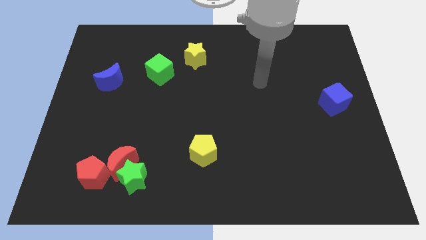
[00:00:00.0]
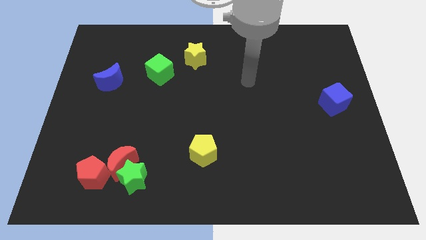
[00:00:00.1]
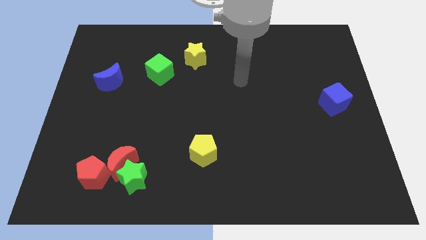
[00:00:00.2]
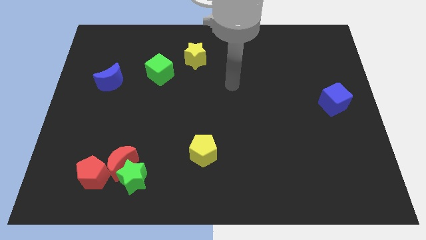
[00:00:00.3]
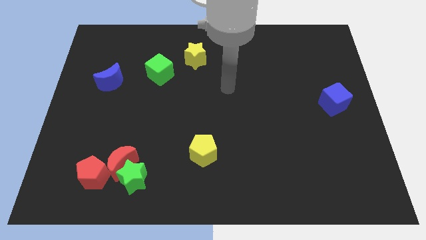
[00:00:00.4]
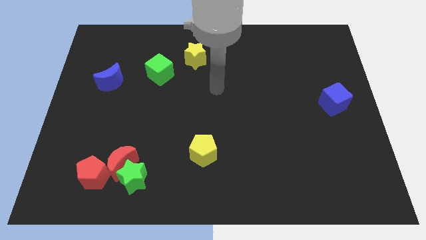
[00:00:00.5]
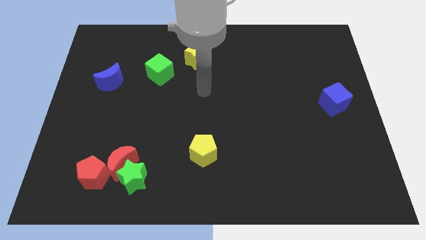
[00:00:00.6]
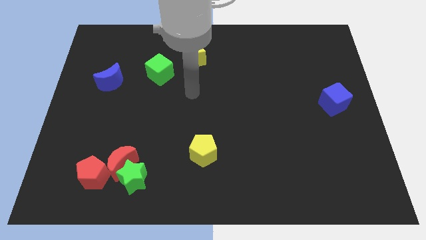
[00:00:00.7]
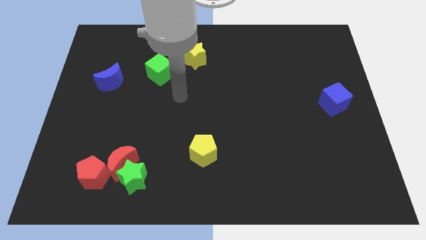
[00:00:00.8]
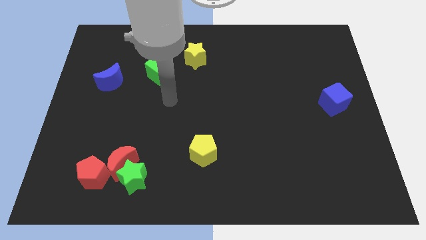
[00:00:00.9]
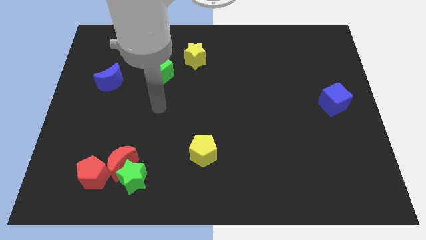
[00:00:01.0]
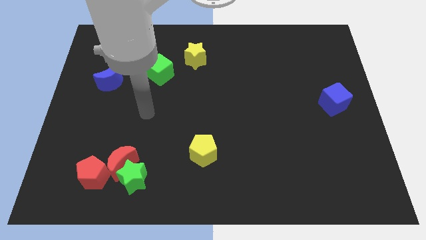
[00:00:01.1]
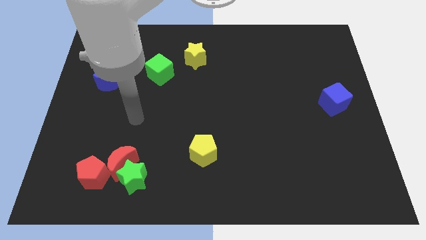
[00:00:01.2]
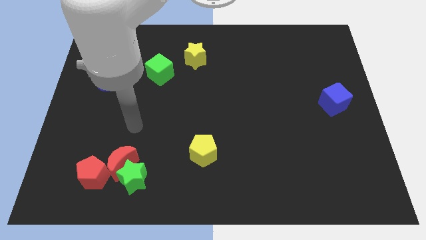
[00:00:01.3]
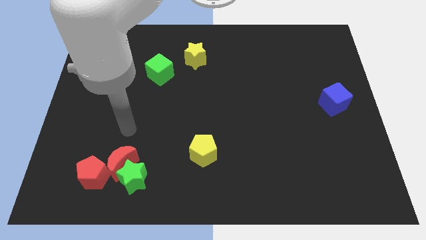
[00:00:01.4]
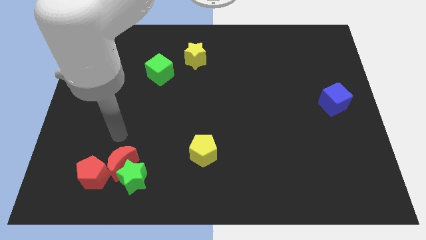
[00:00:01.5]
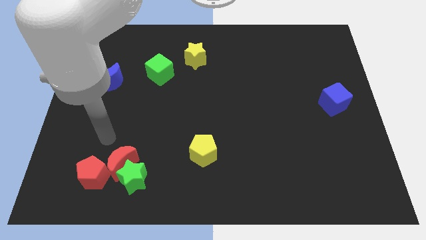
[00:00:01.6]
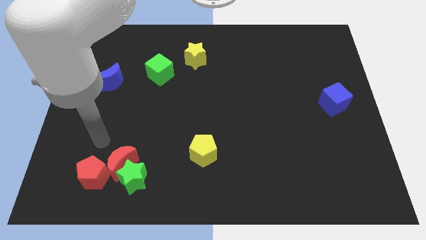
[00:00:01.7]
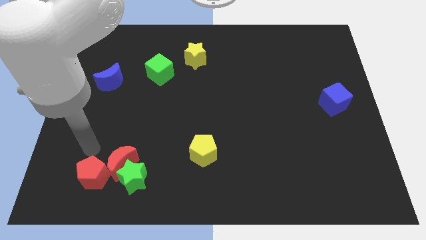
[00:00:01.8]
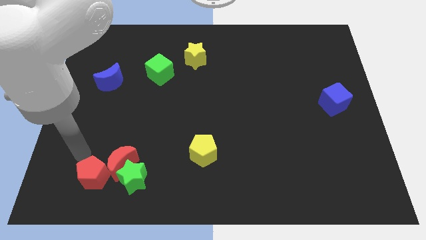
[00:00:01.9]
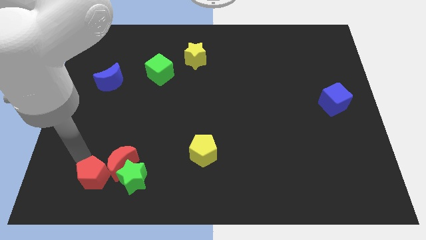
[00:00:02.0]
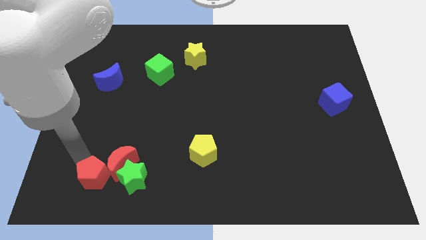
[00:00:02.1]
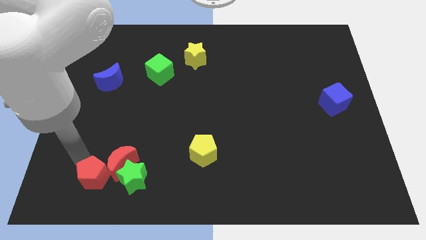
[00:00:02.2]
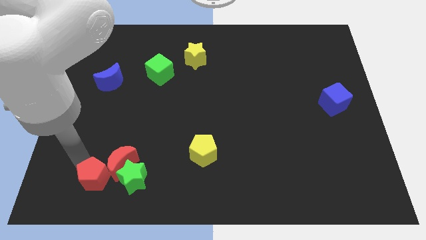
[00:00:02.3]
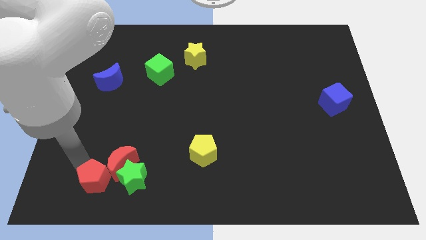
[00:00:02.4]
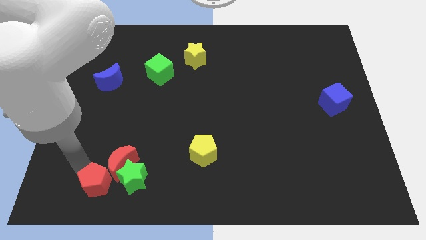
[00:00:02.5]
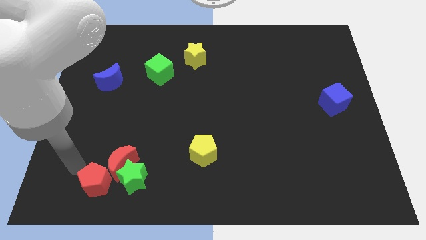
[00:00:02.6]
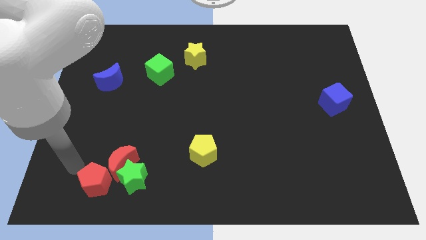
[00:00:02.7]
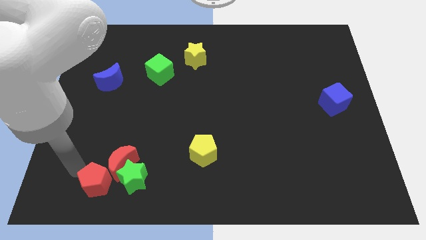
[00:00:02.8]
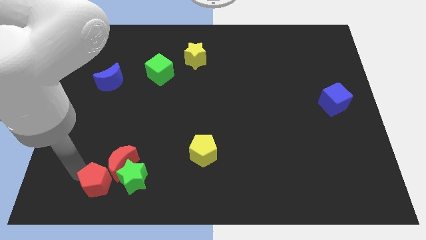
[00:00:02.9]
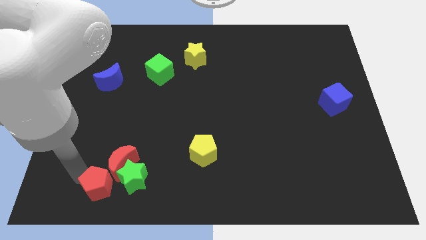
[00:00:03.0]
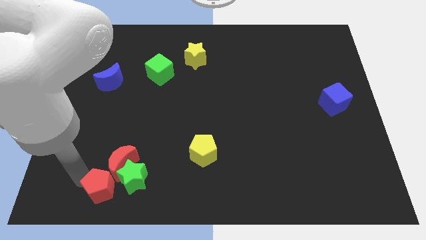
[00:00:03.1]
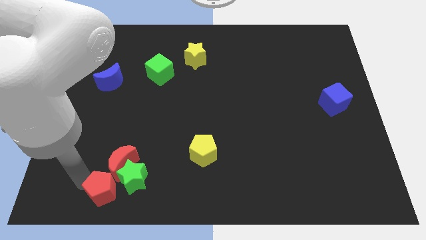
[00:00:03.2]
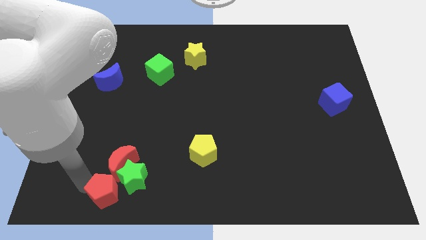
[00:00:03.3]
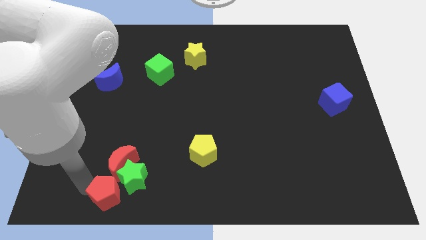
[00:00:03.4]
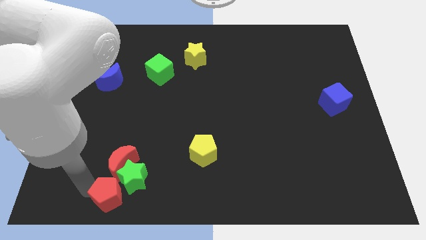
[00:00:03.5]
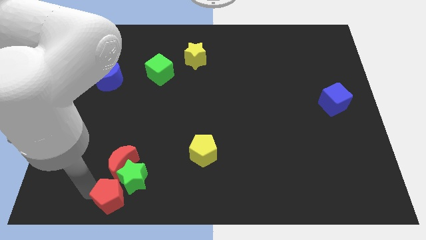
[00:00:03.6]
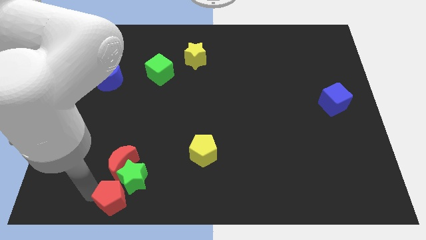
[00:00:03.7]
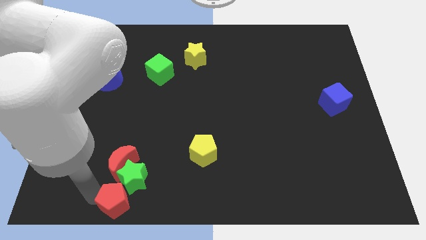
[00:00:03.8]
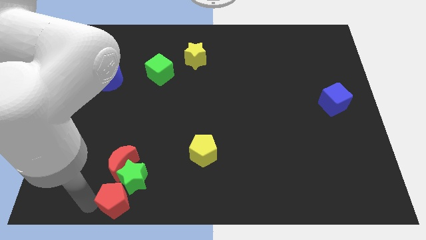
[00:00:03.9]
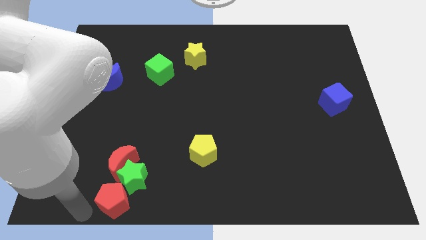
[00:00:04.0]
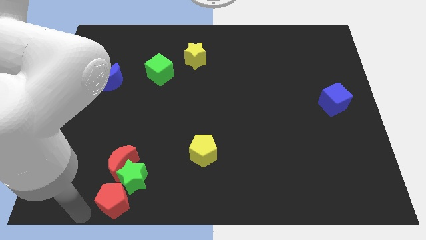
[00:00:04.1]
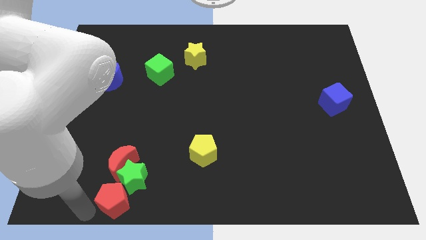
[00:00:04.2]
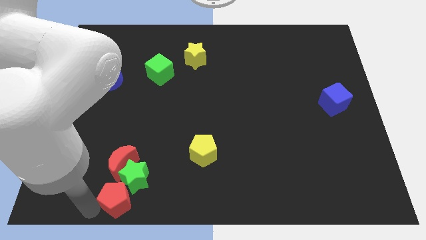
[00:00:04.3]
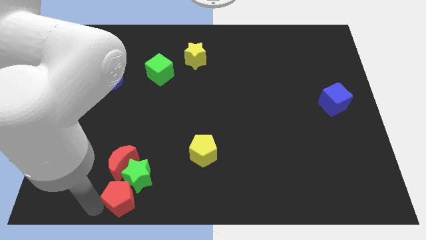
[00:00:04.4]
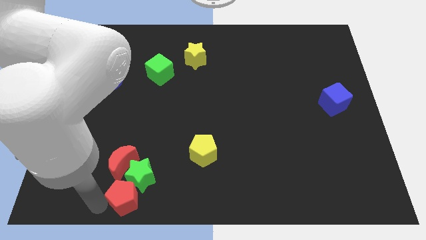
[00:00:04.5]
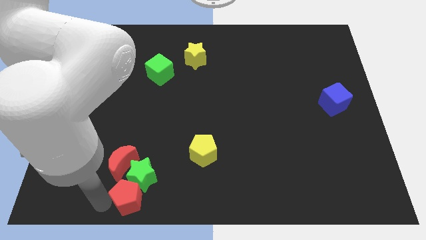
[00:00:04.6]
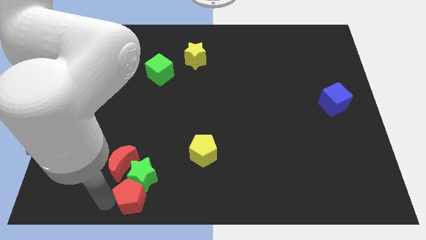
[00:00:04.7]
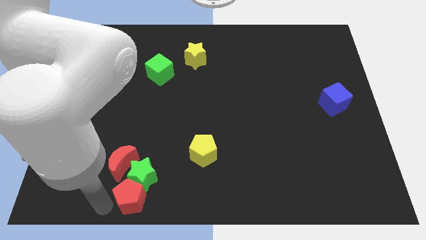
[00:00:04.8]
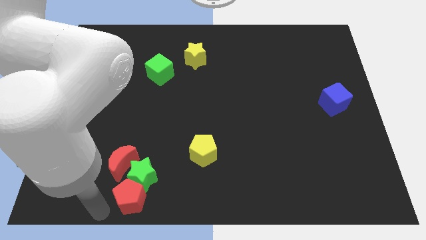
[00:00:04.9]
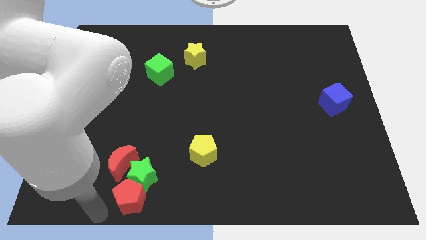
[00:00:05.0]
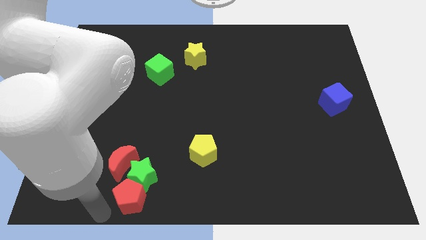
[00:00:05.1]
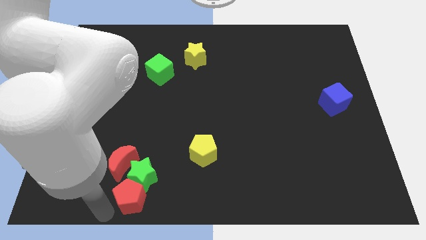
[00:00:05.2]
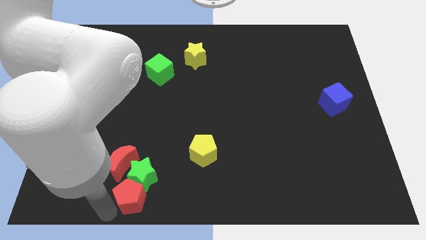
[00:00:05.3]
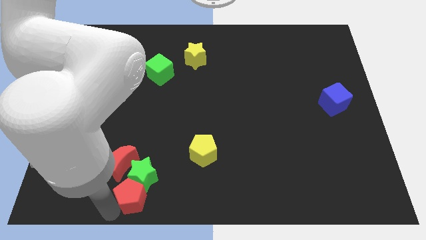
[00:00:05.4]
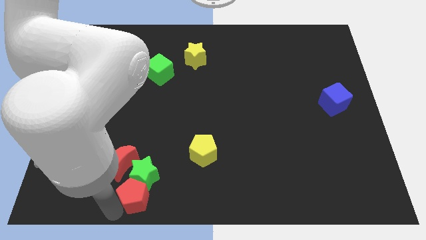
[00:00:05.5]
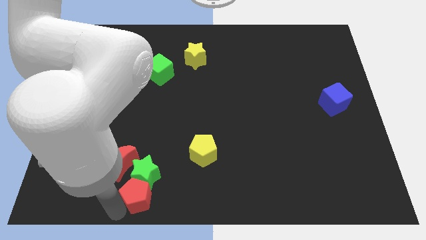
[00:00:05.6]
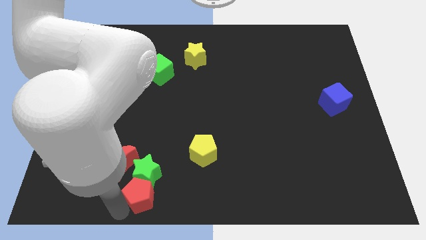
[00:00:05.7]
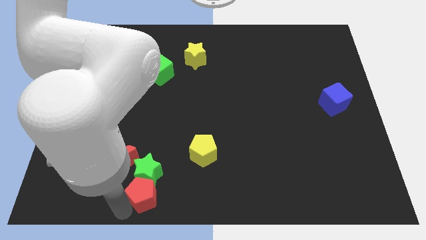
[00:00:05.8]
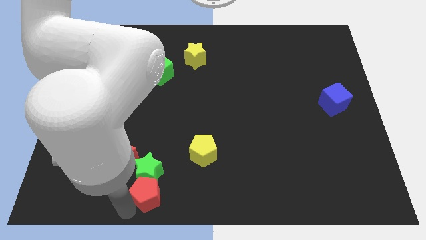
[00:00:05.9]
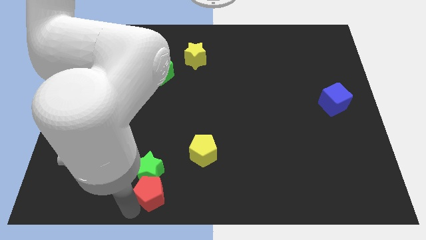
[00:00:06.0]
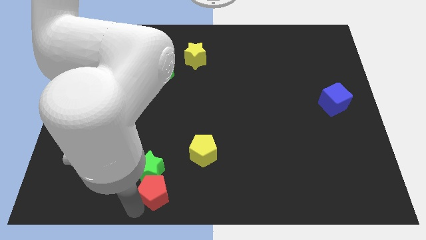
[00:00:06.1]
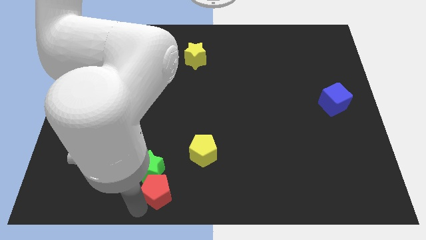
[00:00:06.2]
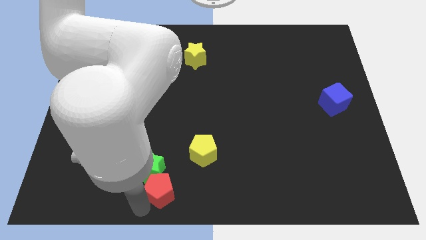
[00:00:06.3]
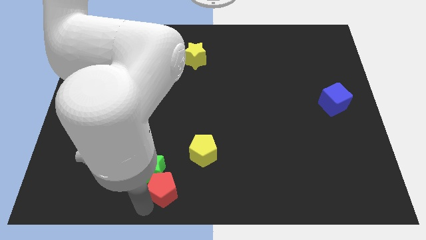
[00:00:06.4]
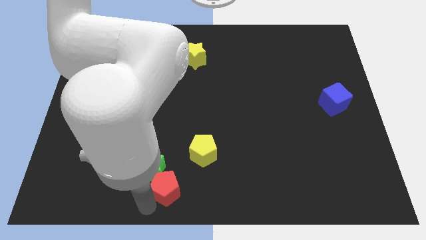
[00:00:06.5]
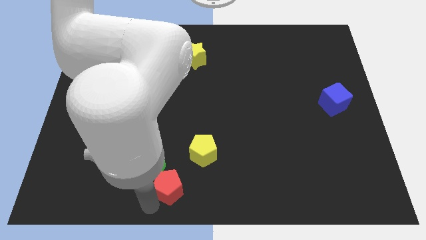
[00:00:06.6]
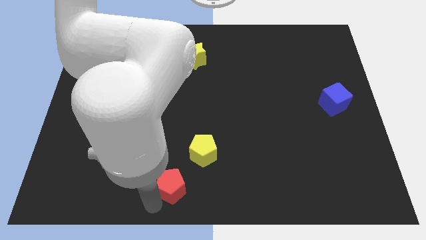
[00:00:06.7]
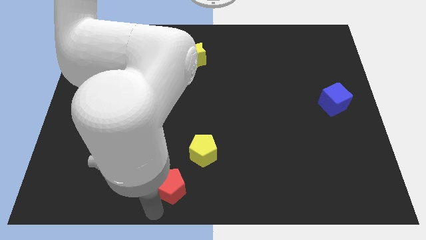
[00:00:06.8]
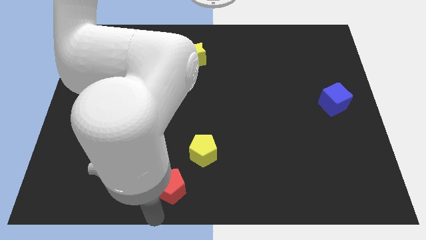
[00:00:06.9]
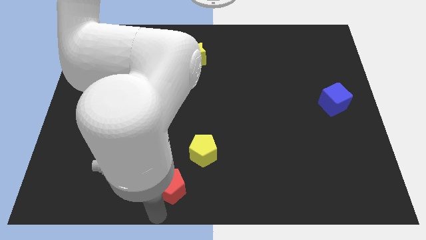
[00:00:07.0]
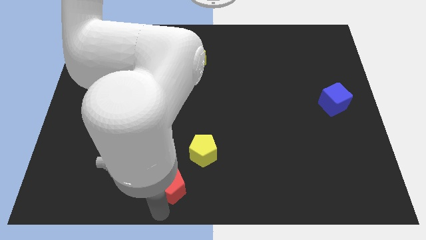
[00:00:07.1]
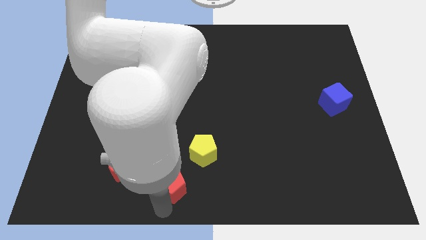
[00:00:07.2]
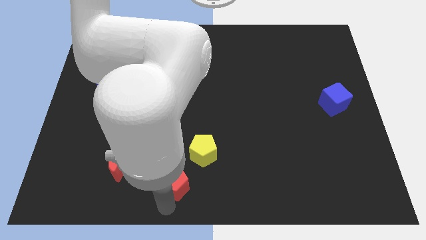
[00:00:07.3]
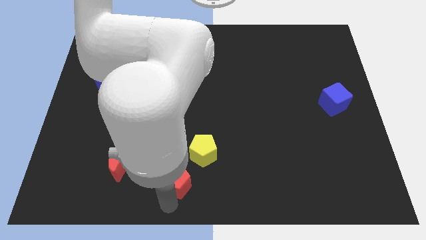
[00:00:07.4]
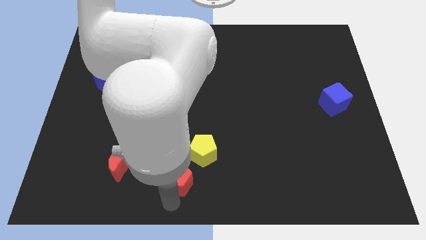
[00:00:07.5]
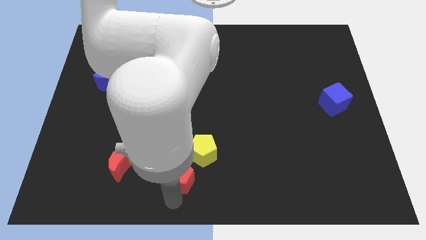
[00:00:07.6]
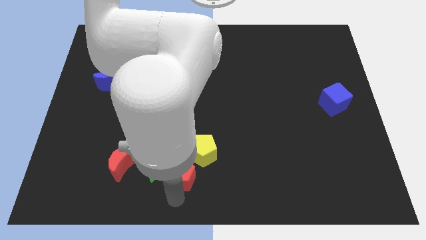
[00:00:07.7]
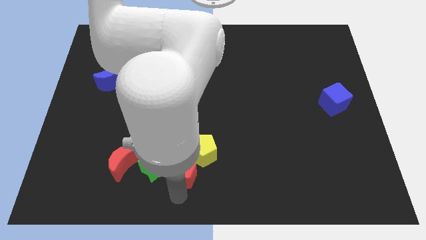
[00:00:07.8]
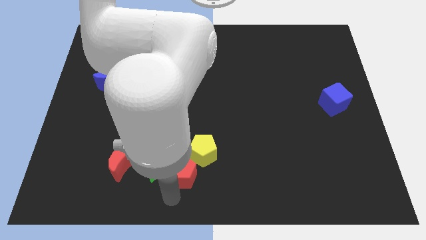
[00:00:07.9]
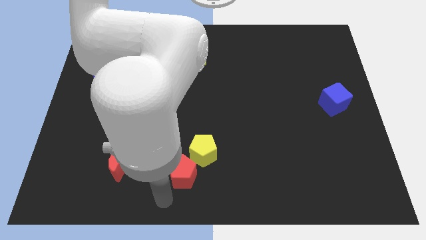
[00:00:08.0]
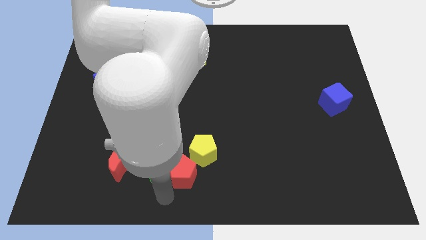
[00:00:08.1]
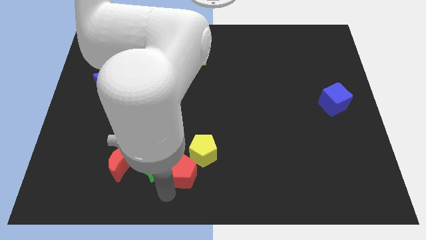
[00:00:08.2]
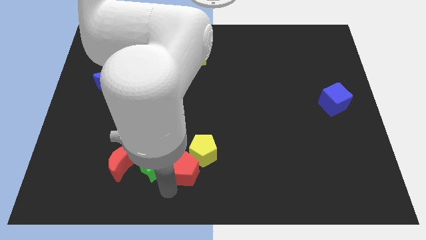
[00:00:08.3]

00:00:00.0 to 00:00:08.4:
move the red pentagon next to the yellow pentagon
